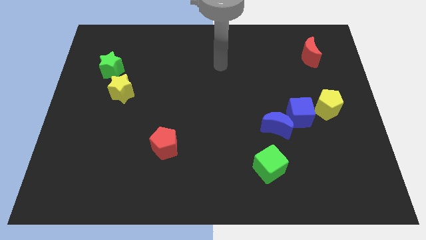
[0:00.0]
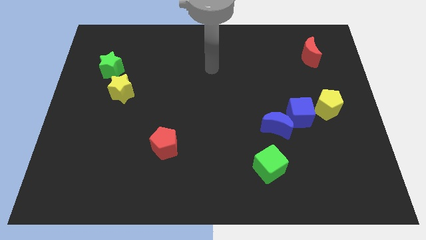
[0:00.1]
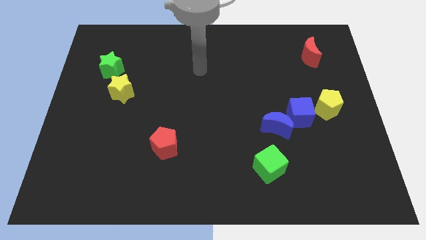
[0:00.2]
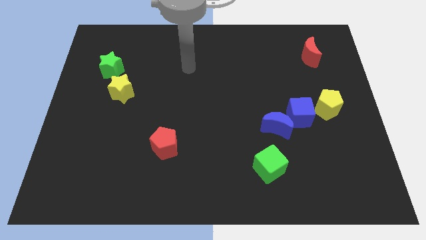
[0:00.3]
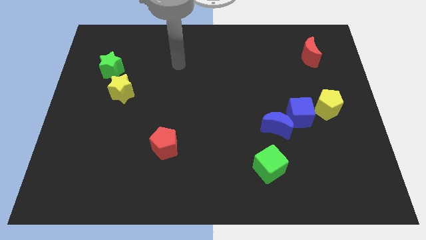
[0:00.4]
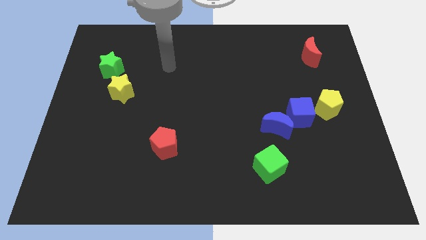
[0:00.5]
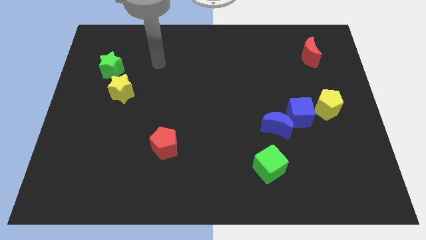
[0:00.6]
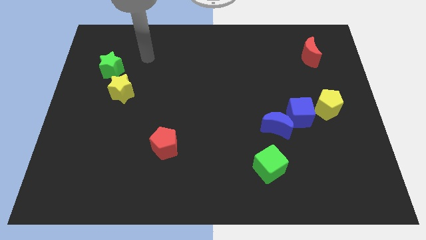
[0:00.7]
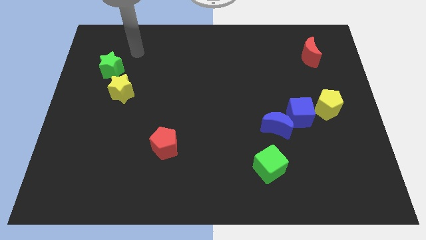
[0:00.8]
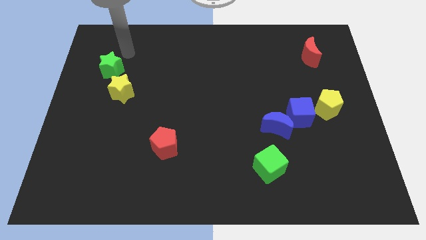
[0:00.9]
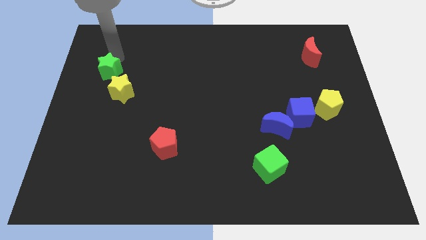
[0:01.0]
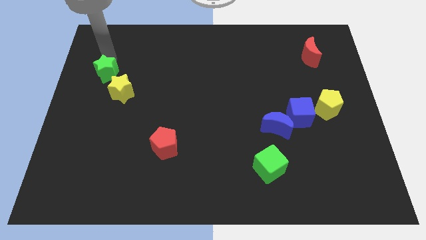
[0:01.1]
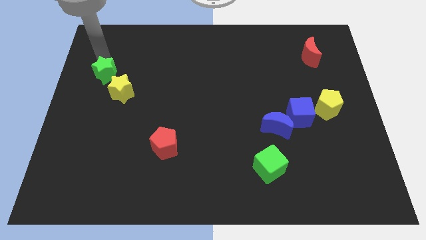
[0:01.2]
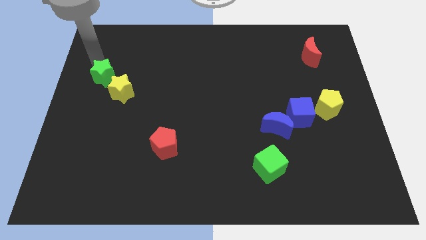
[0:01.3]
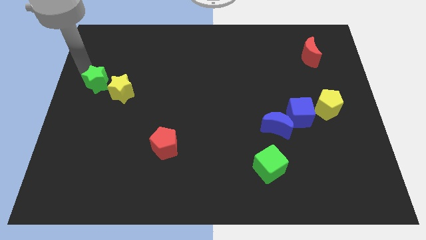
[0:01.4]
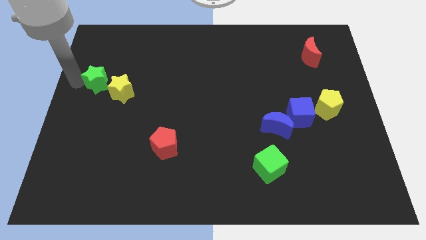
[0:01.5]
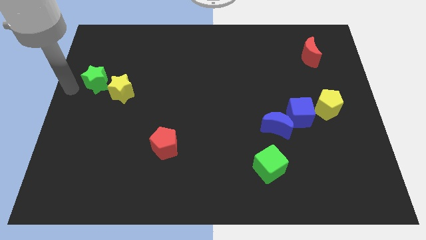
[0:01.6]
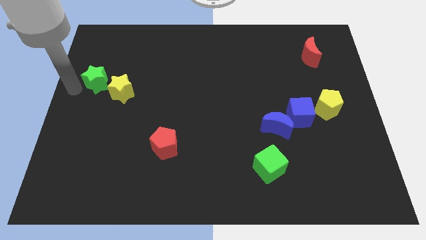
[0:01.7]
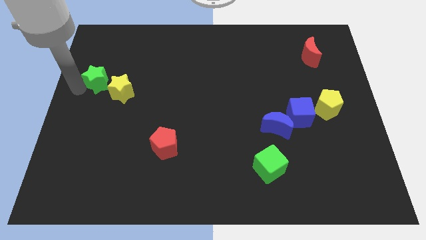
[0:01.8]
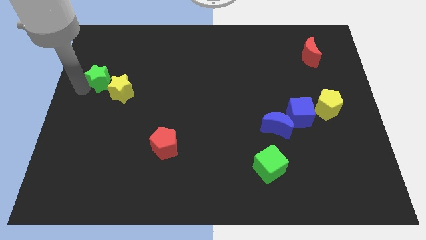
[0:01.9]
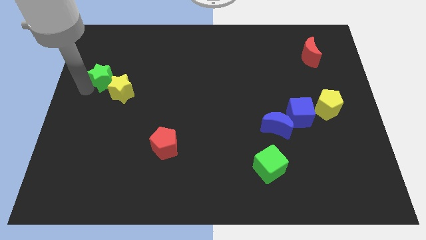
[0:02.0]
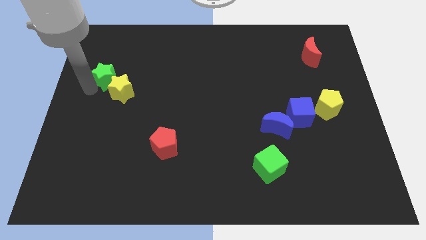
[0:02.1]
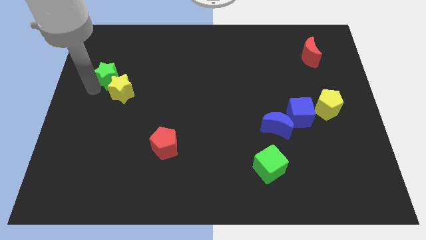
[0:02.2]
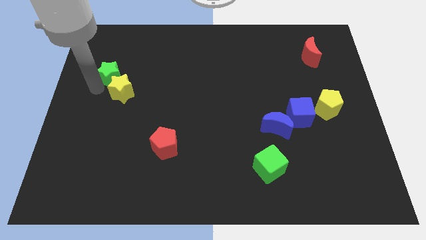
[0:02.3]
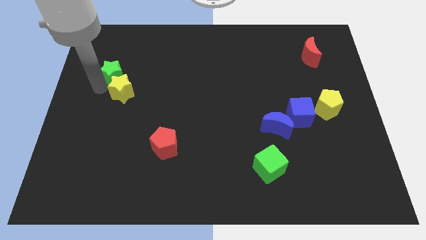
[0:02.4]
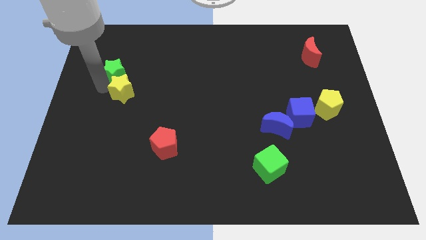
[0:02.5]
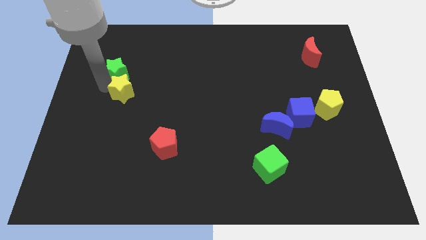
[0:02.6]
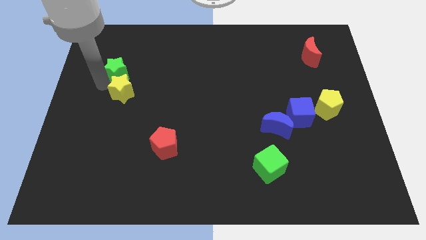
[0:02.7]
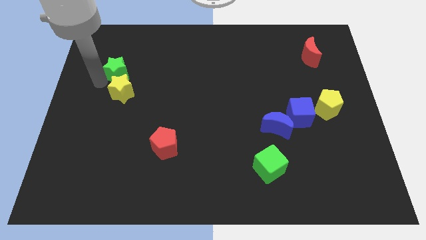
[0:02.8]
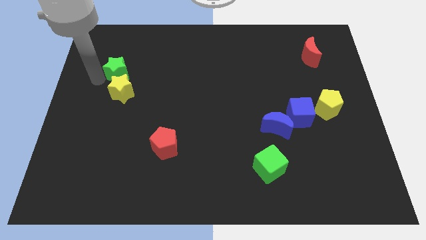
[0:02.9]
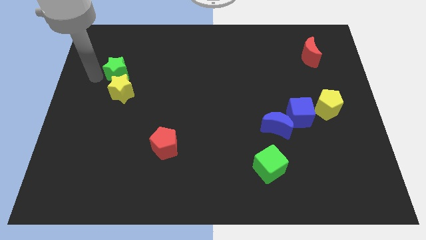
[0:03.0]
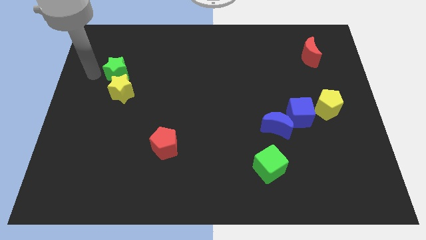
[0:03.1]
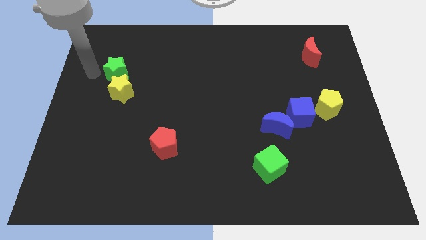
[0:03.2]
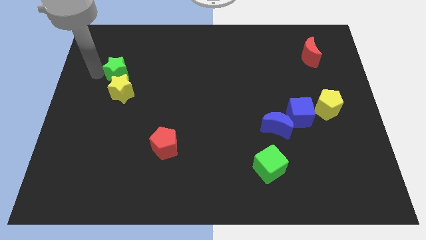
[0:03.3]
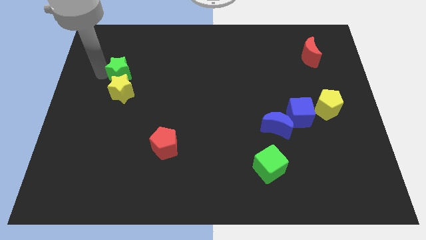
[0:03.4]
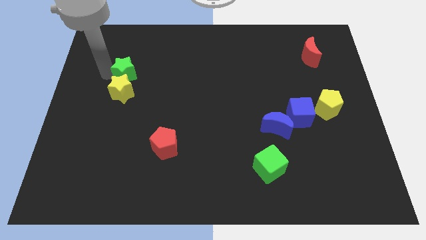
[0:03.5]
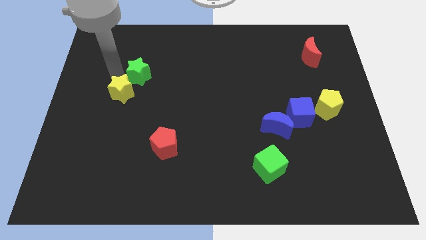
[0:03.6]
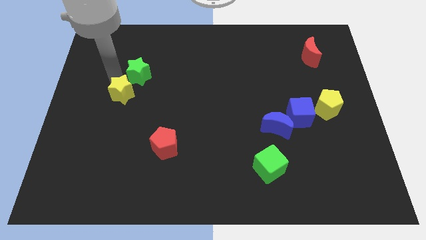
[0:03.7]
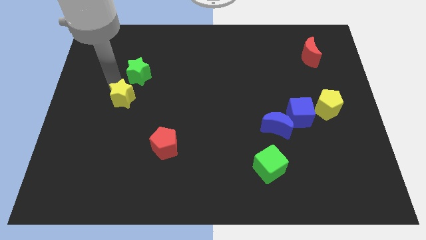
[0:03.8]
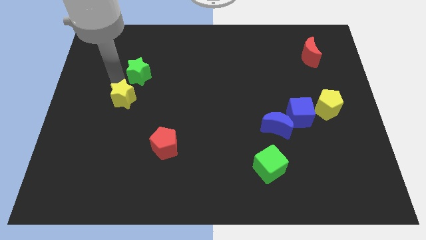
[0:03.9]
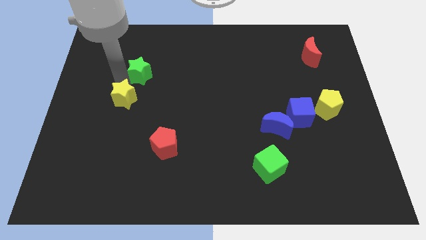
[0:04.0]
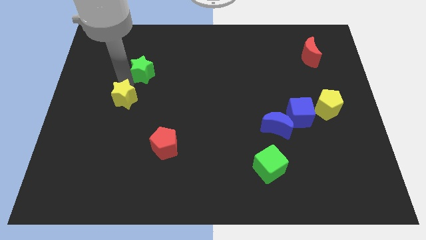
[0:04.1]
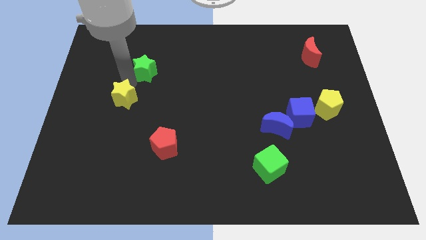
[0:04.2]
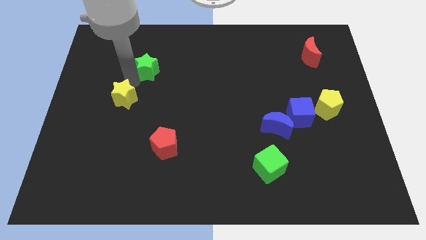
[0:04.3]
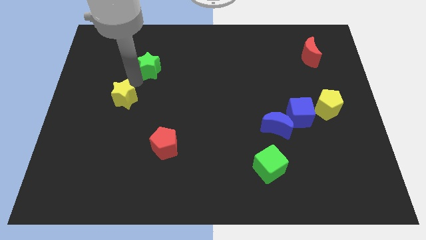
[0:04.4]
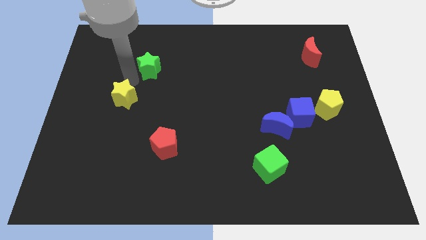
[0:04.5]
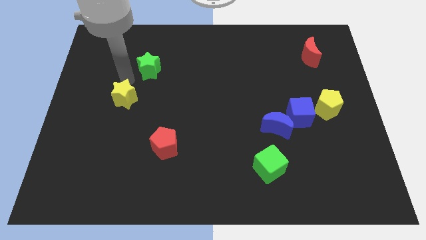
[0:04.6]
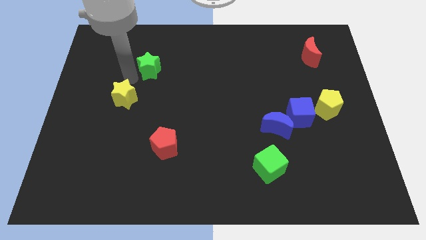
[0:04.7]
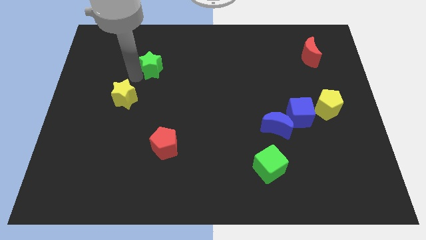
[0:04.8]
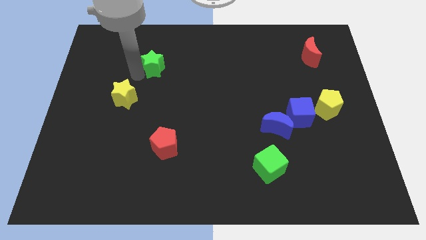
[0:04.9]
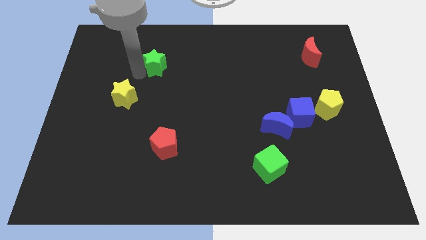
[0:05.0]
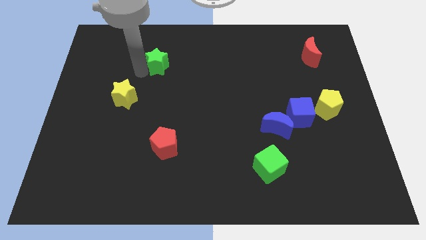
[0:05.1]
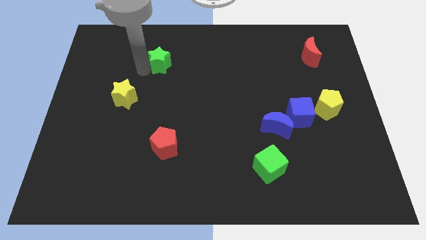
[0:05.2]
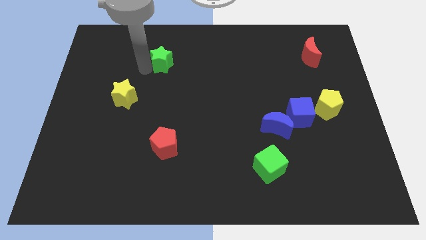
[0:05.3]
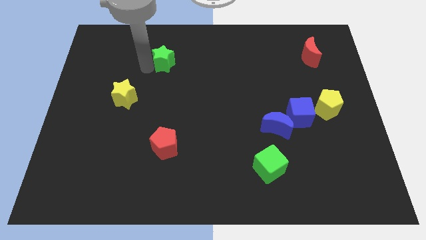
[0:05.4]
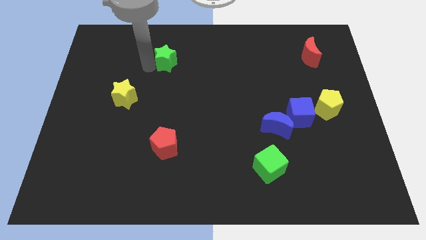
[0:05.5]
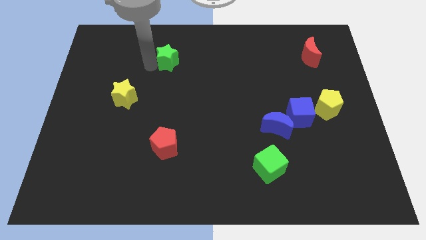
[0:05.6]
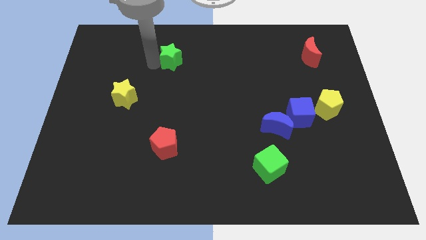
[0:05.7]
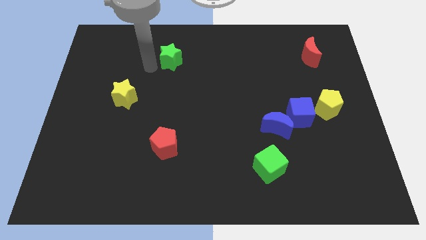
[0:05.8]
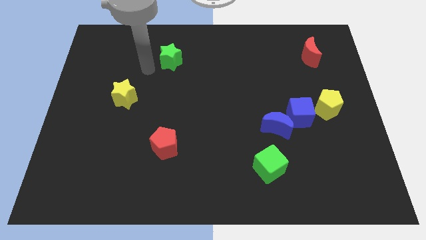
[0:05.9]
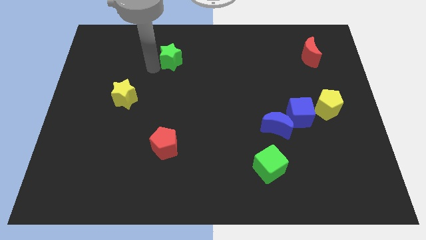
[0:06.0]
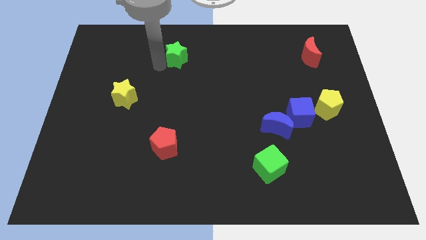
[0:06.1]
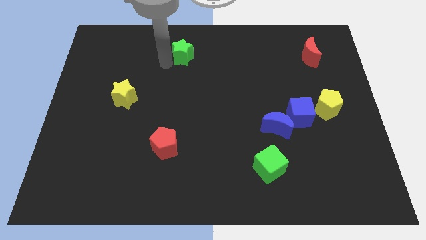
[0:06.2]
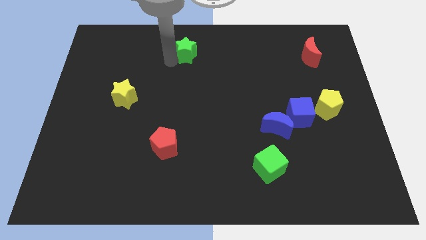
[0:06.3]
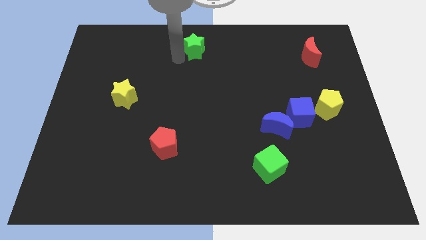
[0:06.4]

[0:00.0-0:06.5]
move the green star to the top side

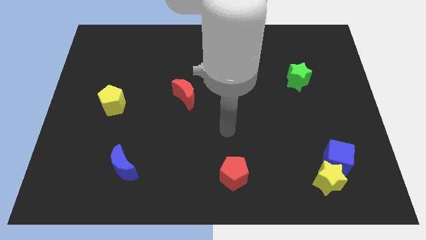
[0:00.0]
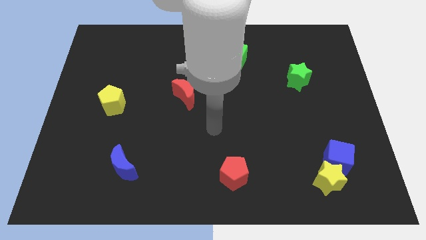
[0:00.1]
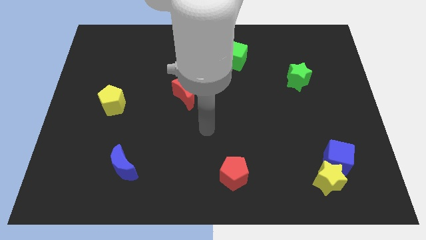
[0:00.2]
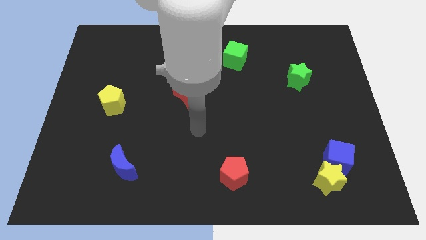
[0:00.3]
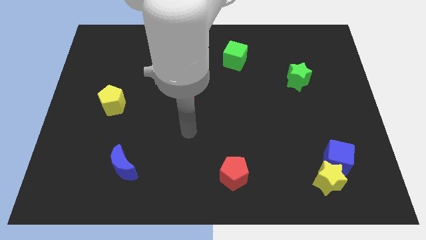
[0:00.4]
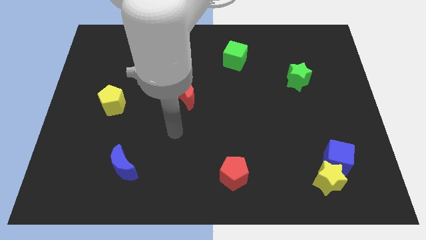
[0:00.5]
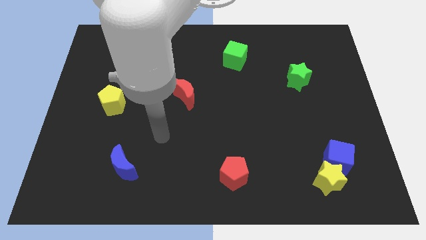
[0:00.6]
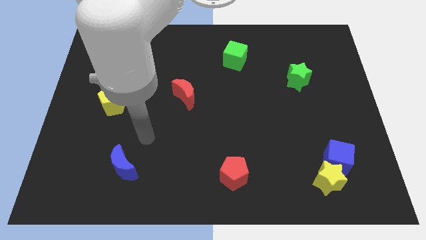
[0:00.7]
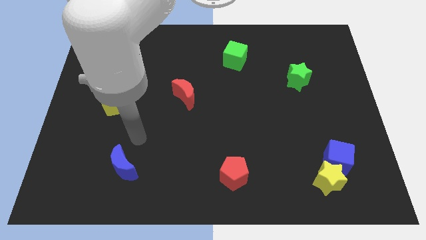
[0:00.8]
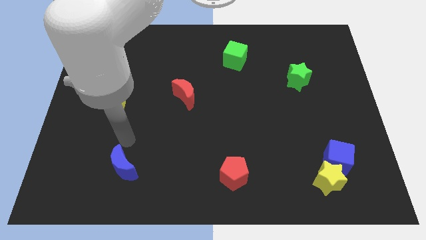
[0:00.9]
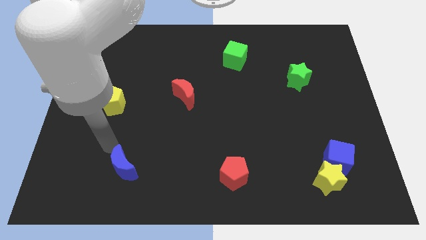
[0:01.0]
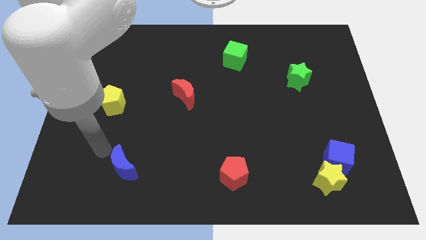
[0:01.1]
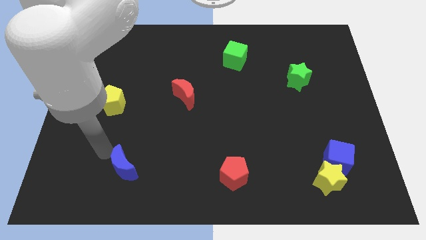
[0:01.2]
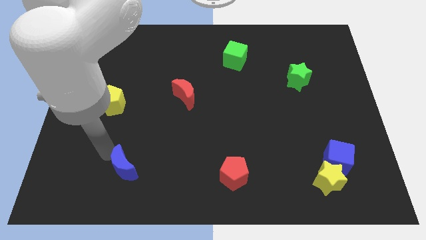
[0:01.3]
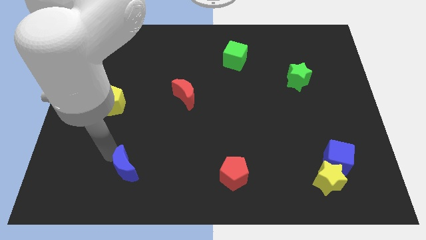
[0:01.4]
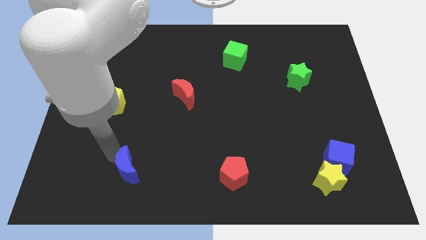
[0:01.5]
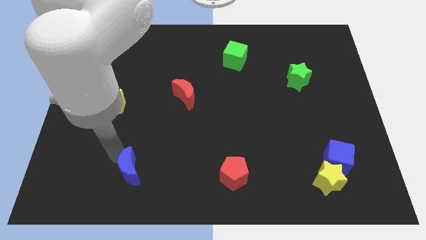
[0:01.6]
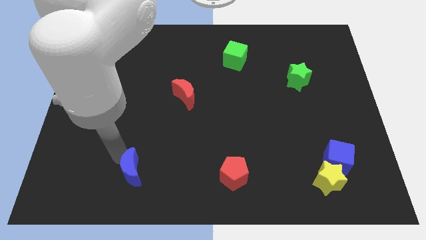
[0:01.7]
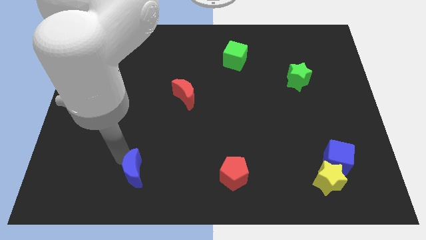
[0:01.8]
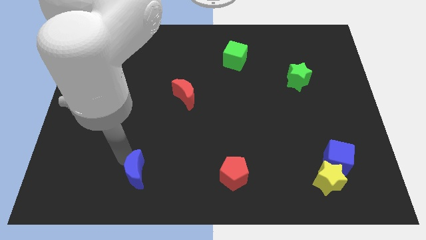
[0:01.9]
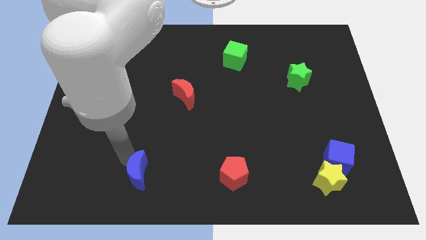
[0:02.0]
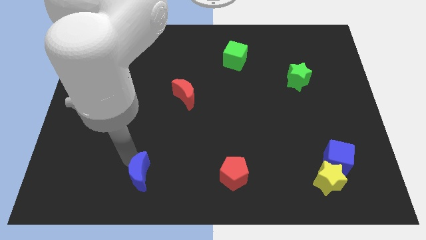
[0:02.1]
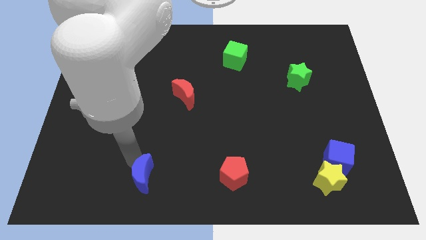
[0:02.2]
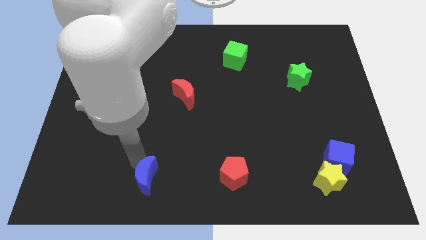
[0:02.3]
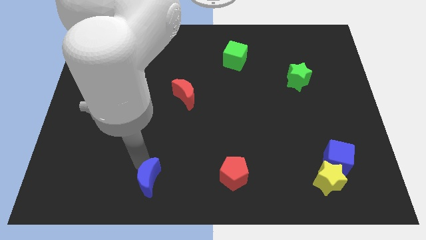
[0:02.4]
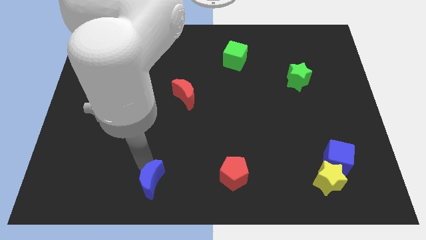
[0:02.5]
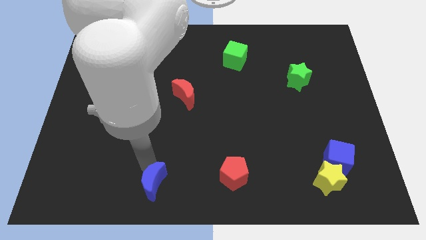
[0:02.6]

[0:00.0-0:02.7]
slide the blue moon to the bottom
